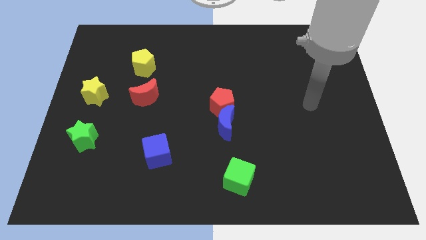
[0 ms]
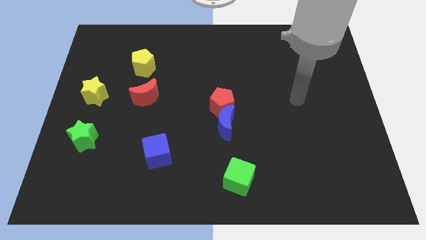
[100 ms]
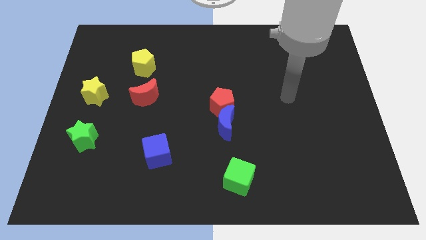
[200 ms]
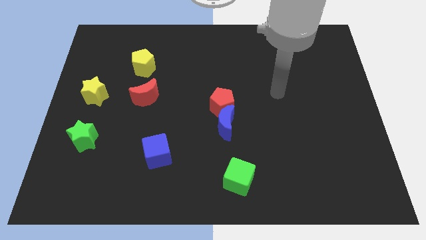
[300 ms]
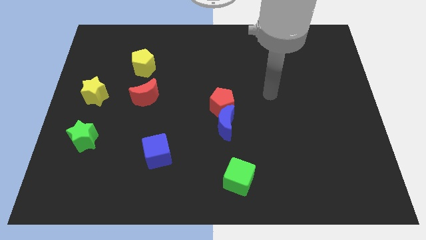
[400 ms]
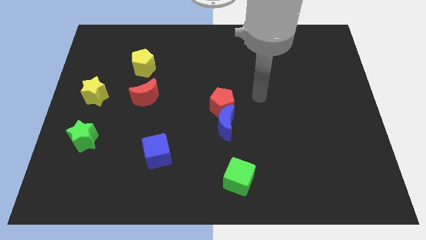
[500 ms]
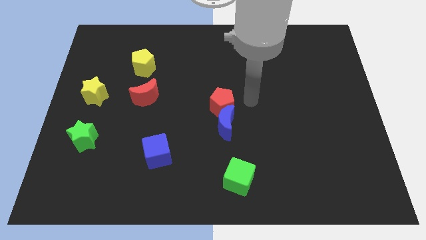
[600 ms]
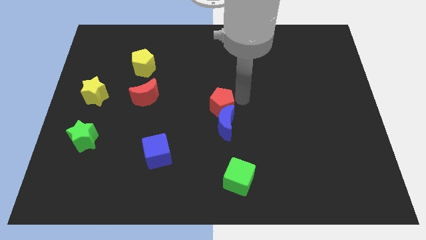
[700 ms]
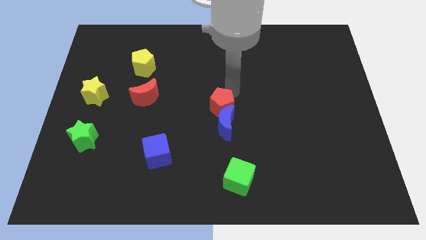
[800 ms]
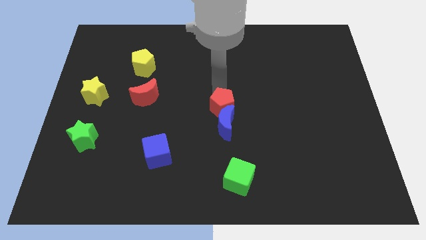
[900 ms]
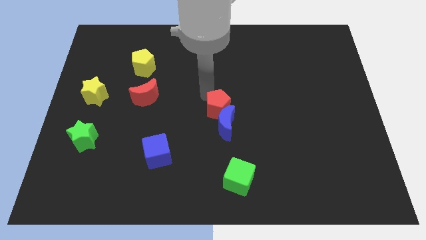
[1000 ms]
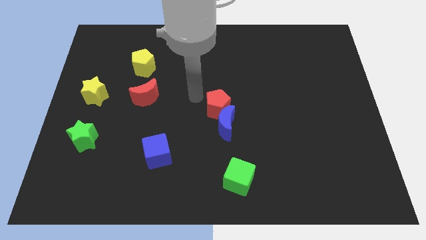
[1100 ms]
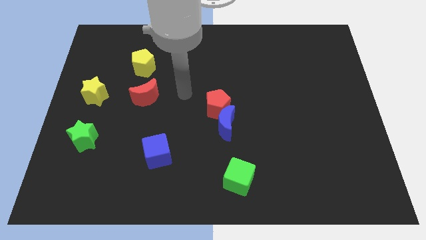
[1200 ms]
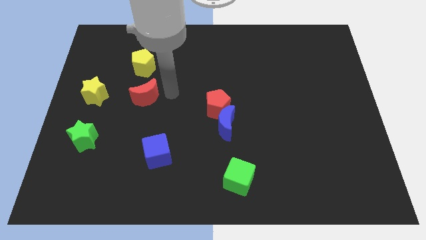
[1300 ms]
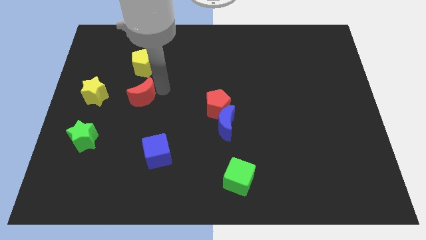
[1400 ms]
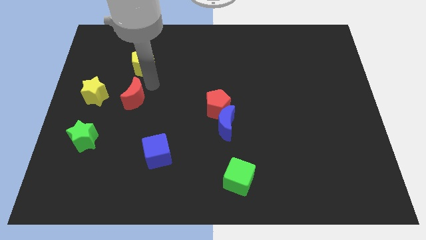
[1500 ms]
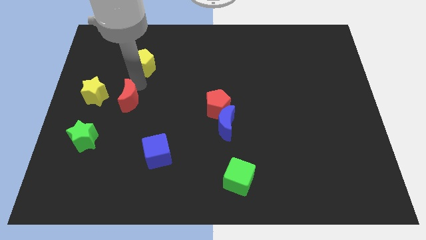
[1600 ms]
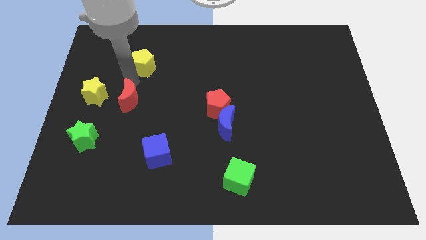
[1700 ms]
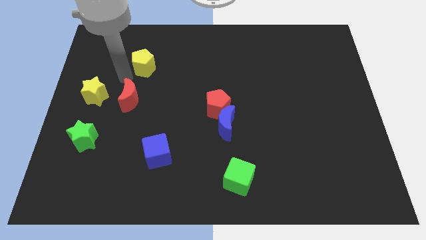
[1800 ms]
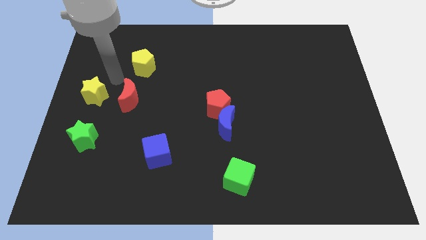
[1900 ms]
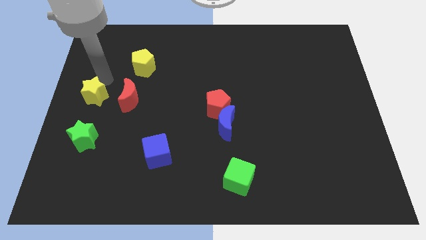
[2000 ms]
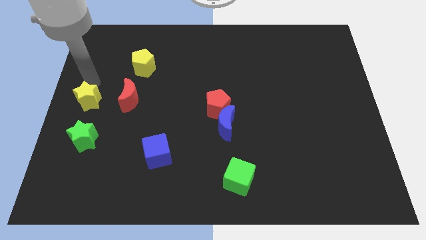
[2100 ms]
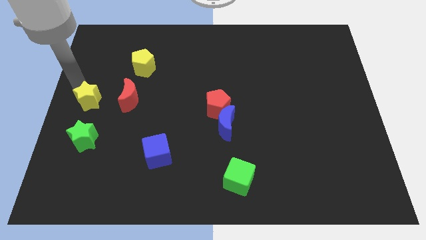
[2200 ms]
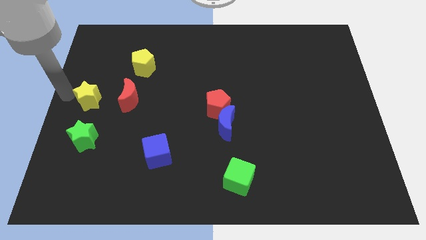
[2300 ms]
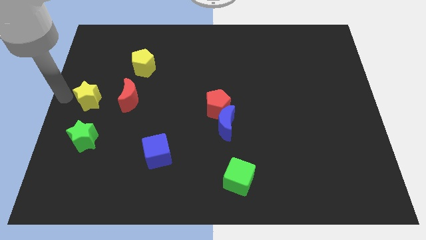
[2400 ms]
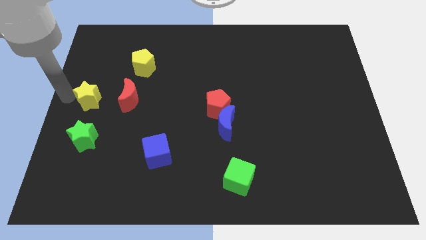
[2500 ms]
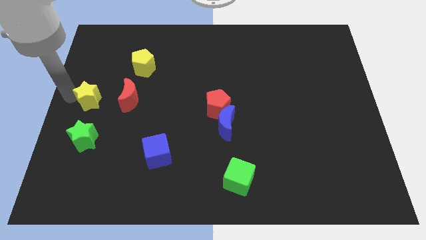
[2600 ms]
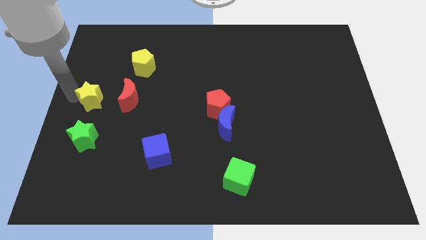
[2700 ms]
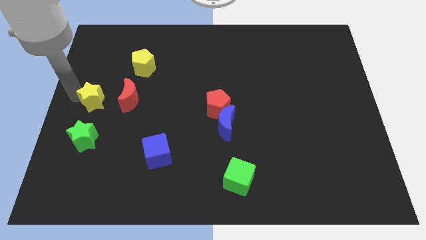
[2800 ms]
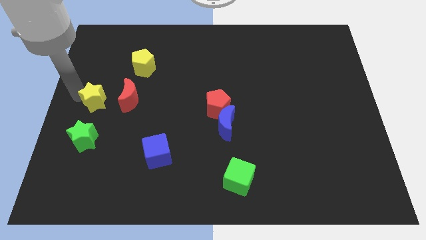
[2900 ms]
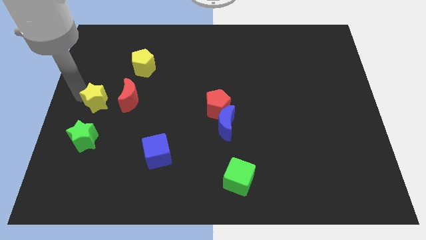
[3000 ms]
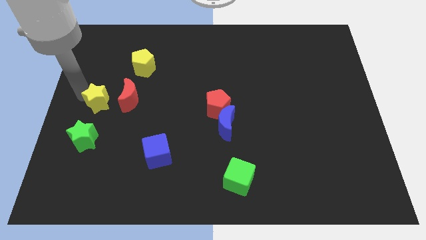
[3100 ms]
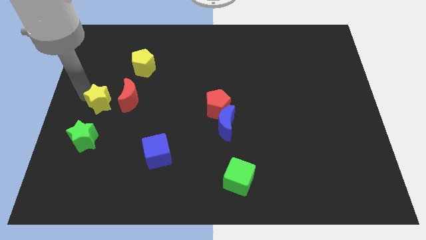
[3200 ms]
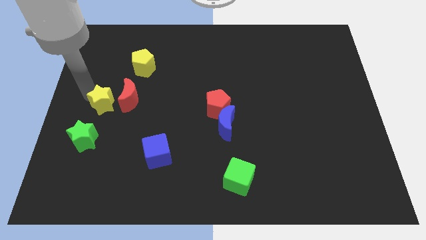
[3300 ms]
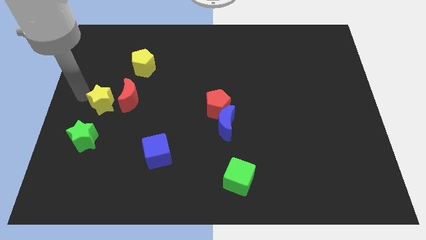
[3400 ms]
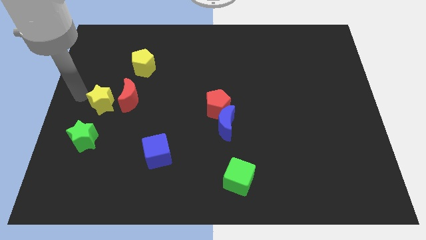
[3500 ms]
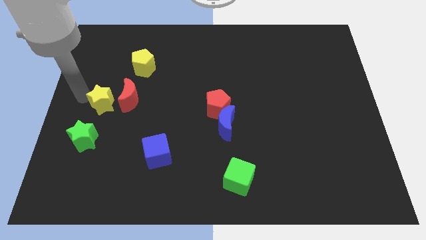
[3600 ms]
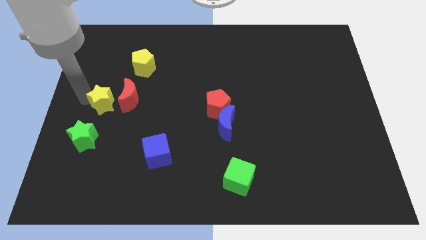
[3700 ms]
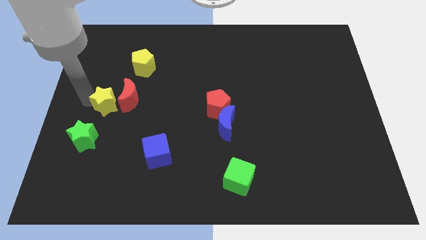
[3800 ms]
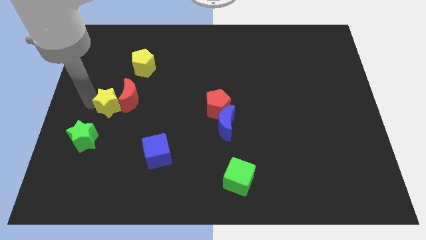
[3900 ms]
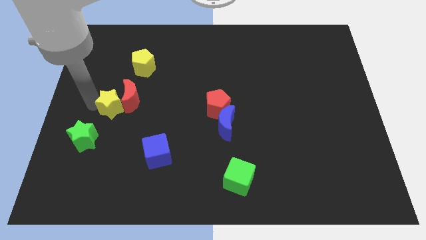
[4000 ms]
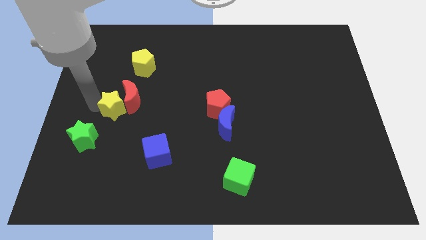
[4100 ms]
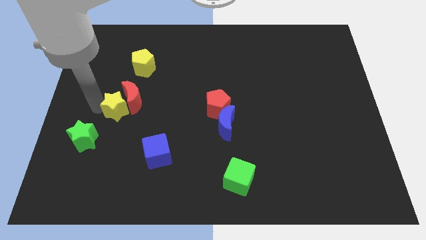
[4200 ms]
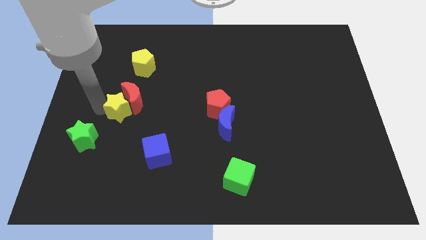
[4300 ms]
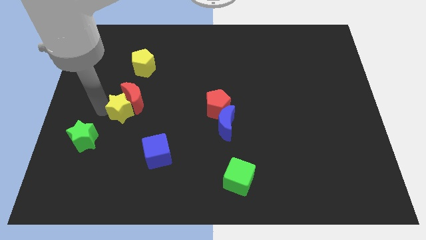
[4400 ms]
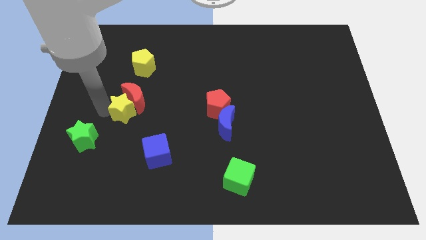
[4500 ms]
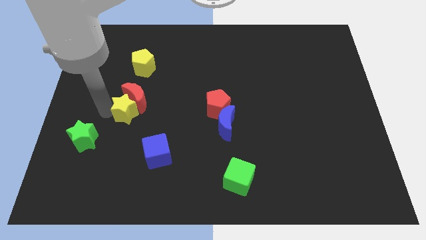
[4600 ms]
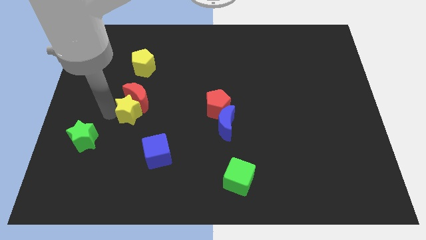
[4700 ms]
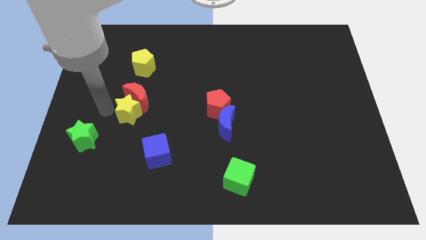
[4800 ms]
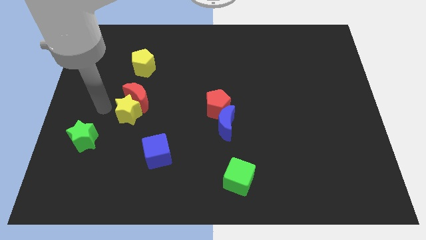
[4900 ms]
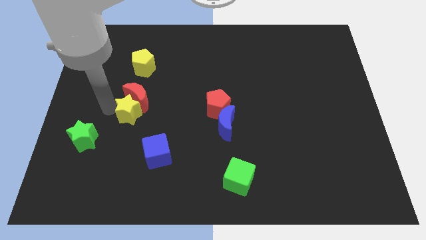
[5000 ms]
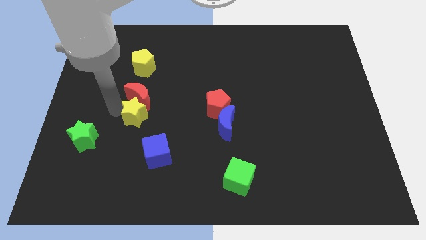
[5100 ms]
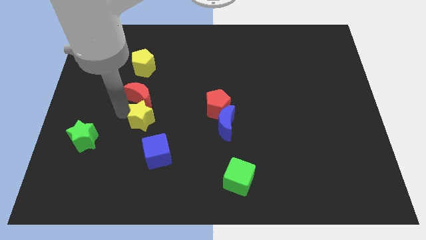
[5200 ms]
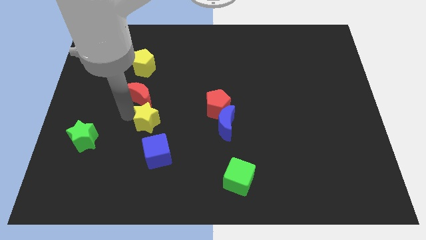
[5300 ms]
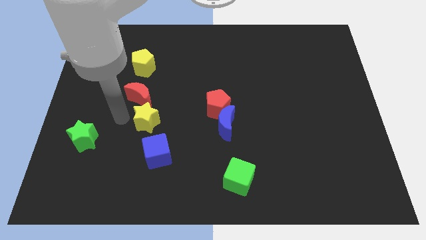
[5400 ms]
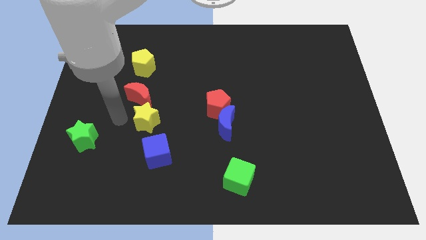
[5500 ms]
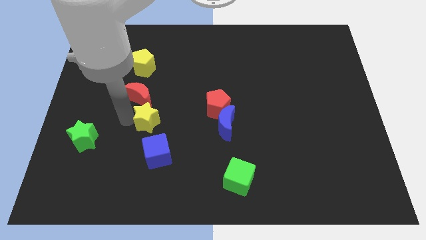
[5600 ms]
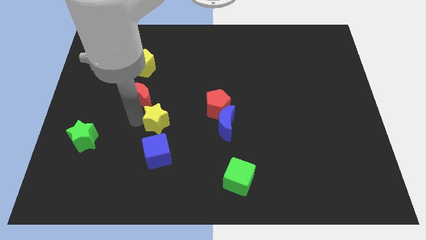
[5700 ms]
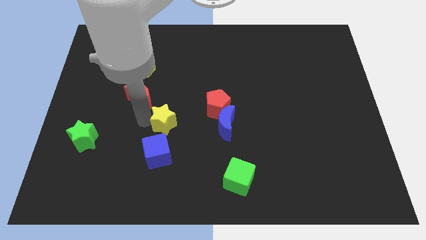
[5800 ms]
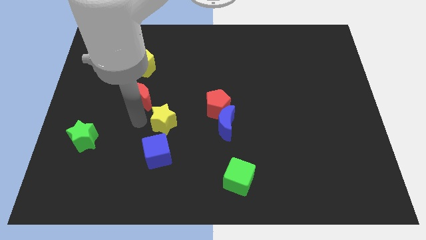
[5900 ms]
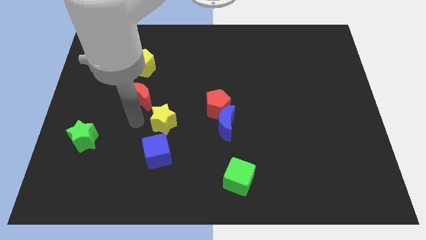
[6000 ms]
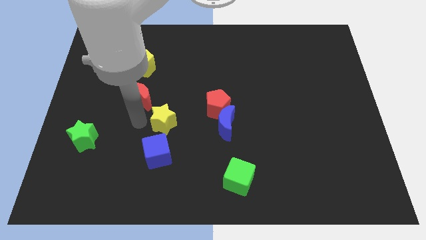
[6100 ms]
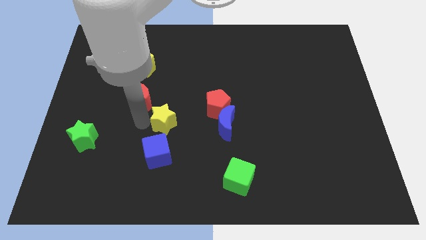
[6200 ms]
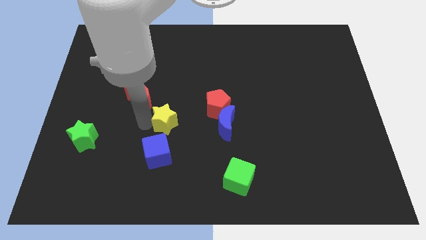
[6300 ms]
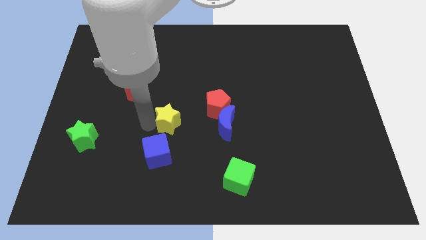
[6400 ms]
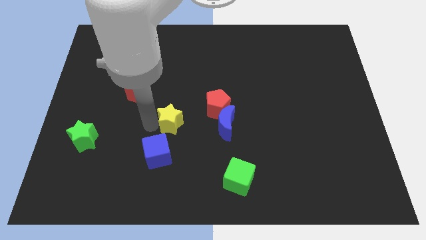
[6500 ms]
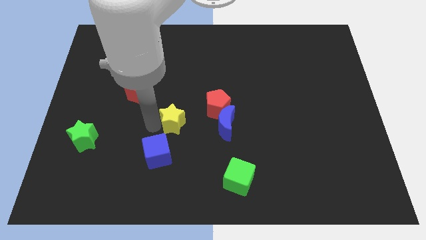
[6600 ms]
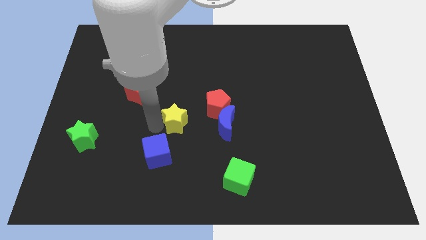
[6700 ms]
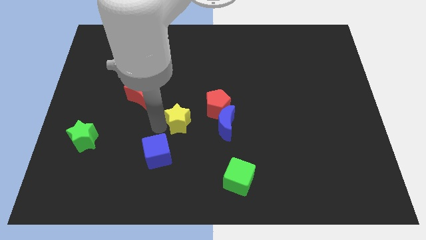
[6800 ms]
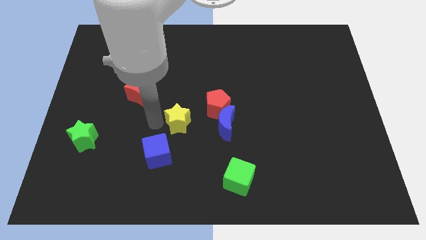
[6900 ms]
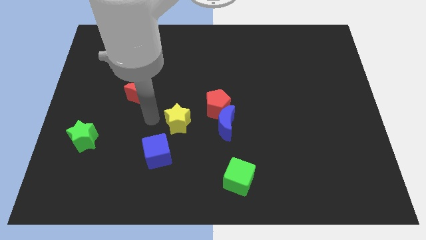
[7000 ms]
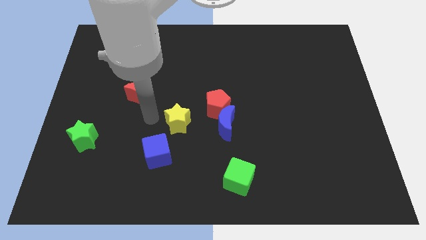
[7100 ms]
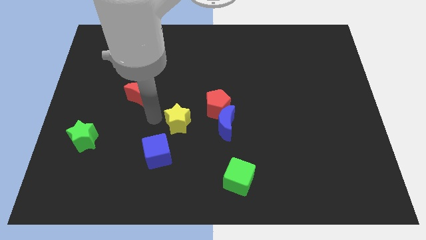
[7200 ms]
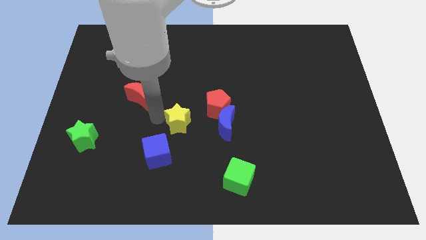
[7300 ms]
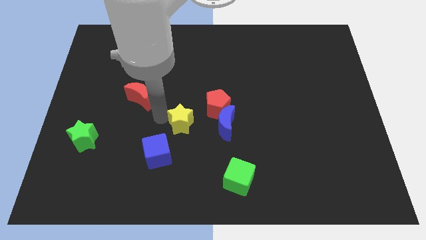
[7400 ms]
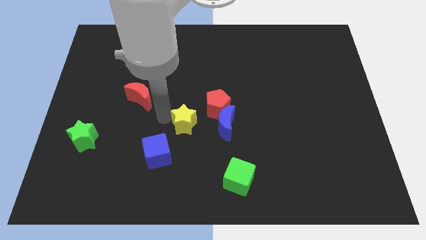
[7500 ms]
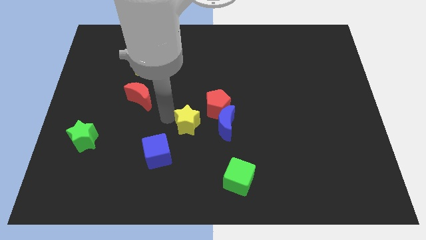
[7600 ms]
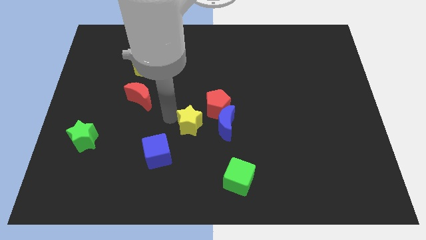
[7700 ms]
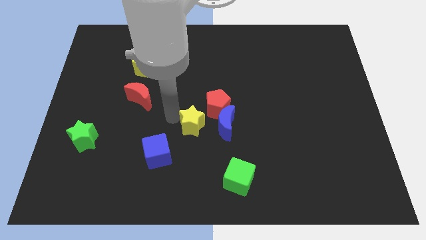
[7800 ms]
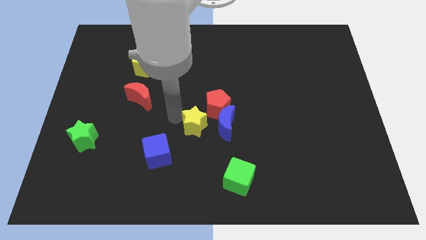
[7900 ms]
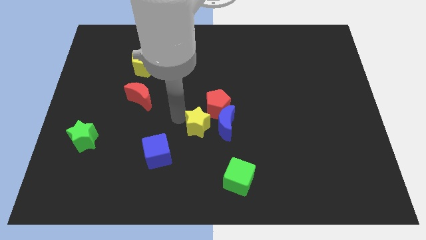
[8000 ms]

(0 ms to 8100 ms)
move the yellow star to the blue moon
